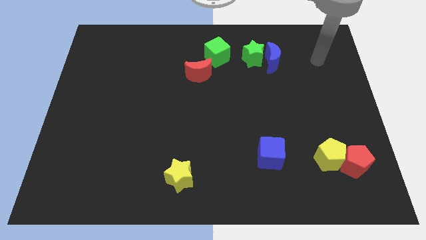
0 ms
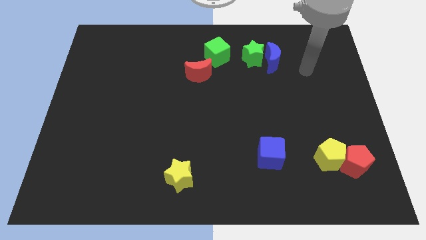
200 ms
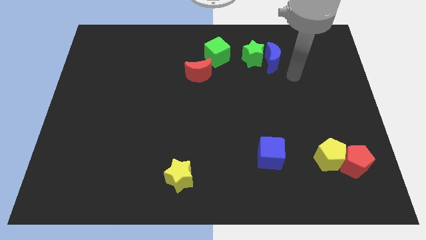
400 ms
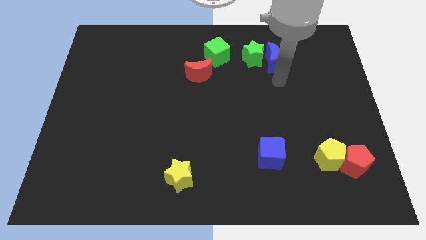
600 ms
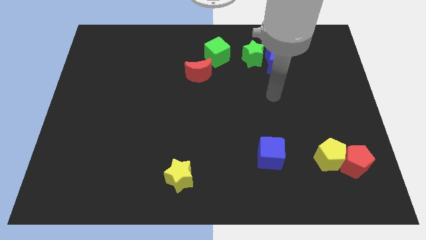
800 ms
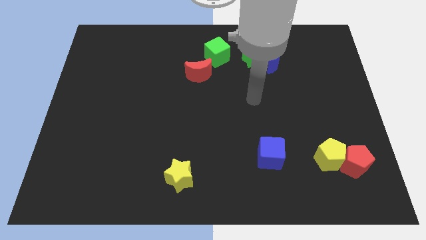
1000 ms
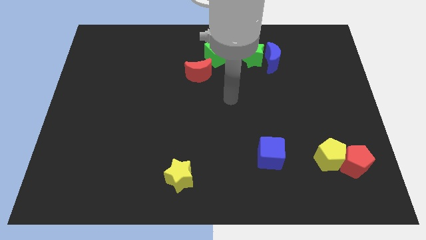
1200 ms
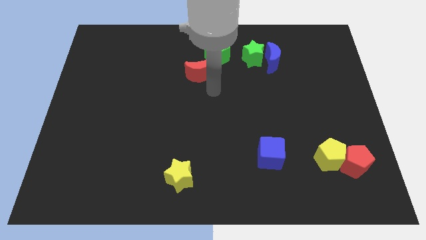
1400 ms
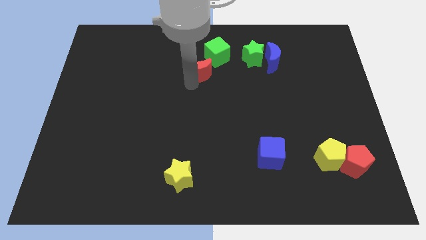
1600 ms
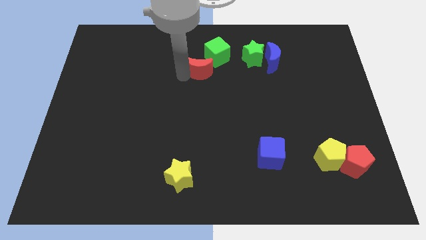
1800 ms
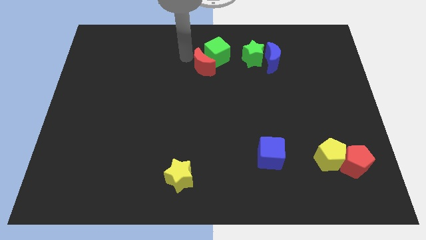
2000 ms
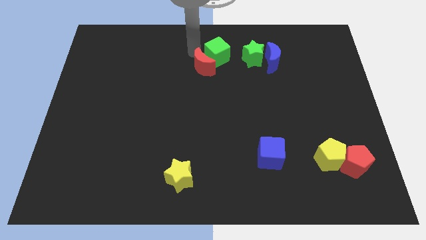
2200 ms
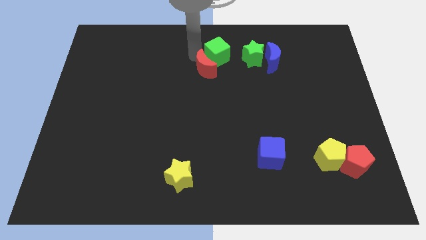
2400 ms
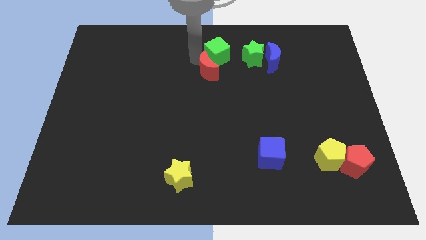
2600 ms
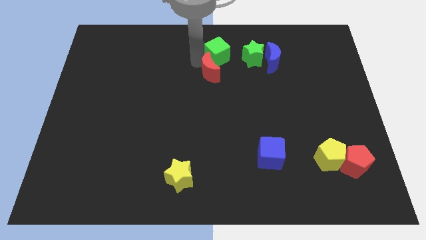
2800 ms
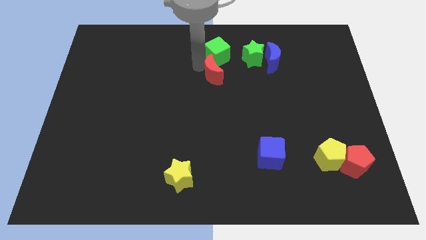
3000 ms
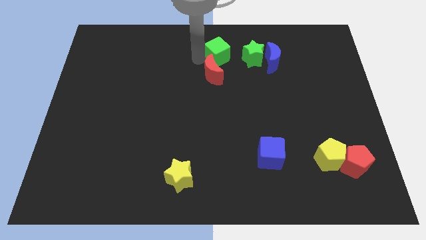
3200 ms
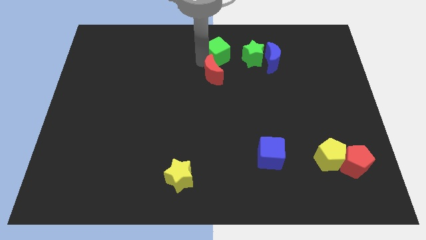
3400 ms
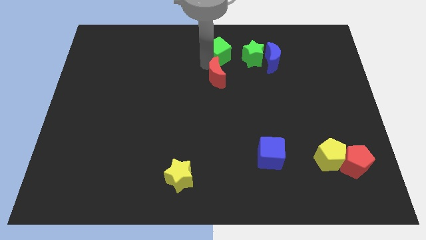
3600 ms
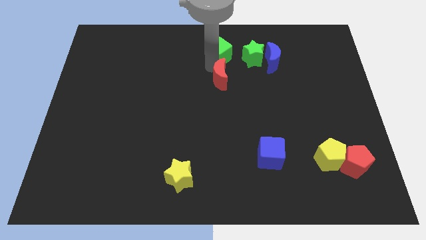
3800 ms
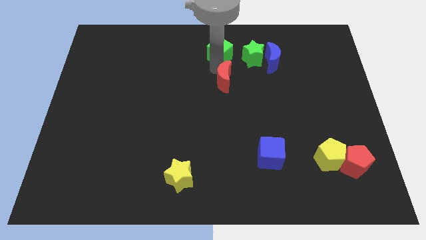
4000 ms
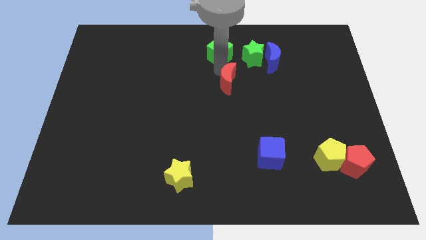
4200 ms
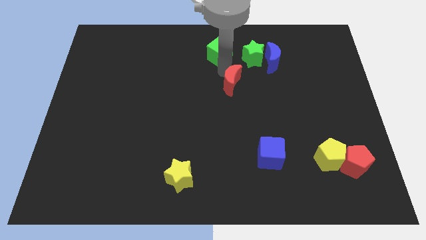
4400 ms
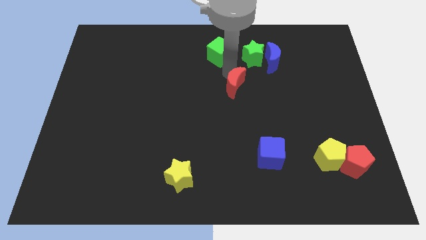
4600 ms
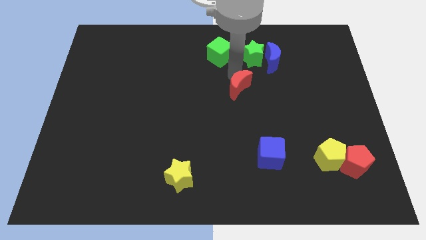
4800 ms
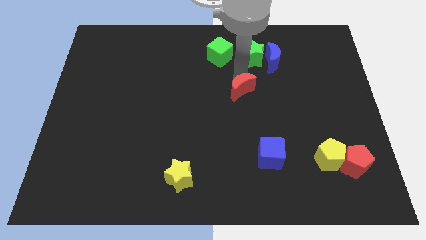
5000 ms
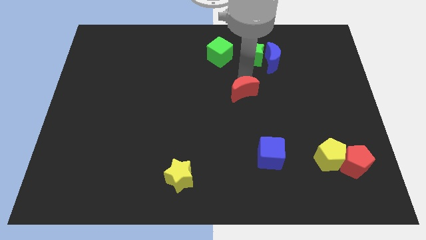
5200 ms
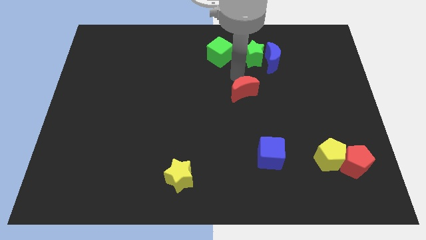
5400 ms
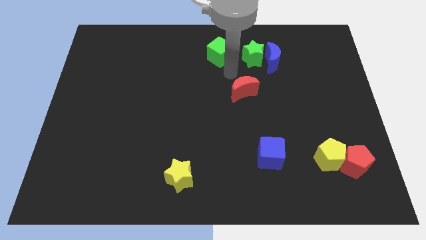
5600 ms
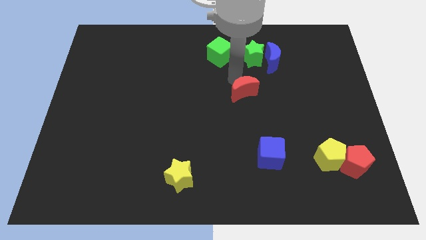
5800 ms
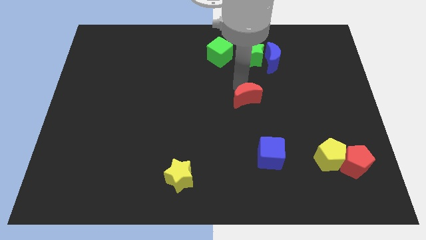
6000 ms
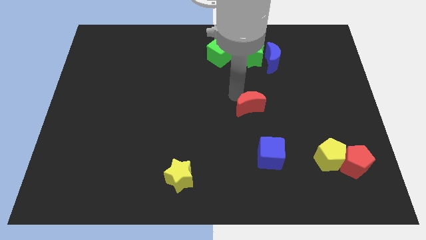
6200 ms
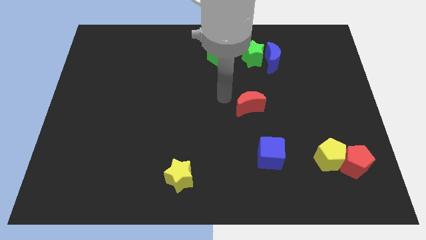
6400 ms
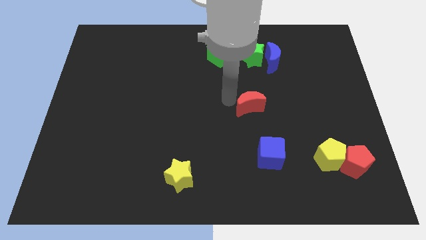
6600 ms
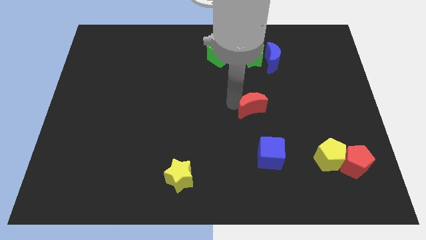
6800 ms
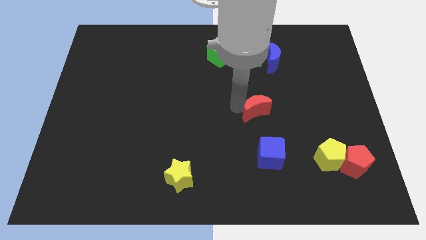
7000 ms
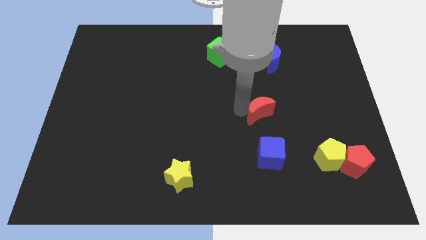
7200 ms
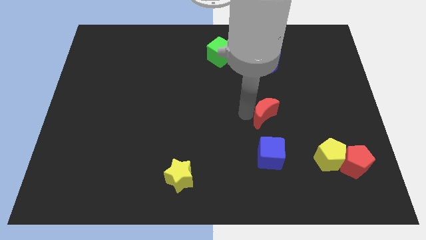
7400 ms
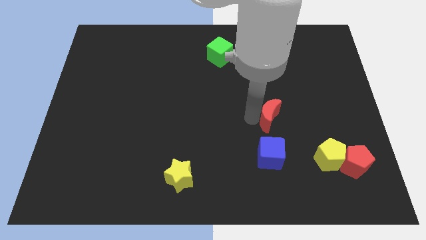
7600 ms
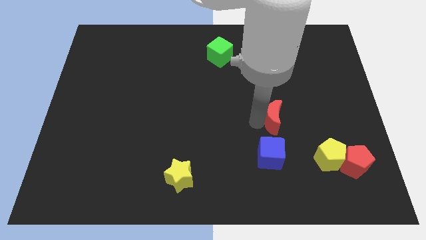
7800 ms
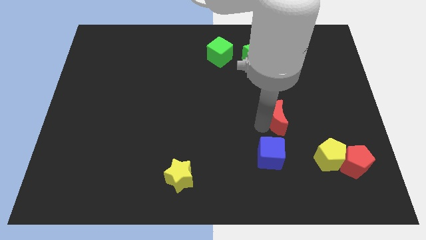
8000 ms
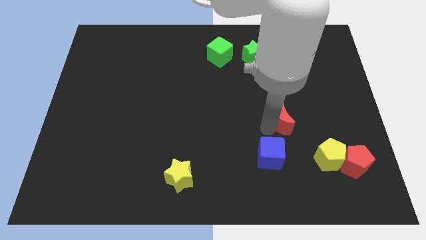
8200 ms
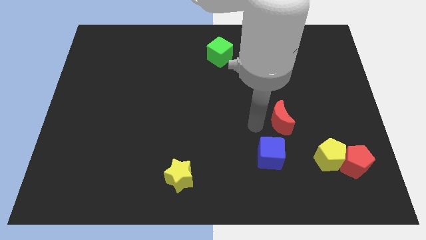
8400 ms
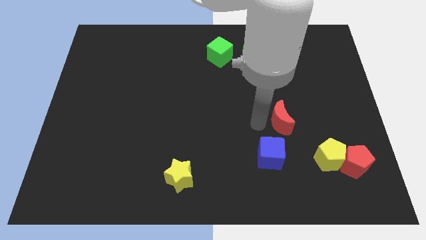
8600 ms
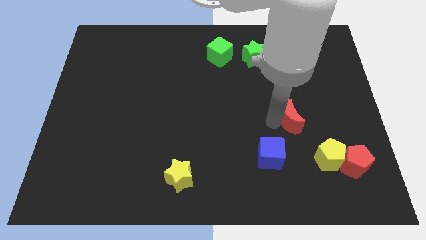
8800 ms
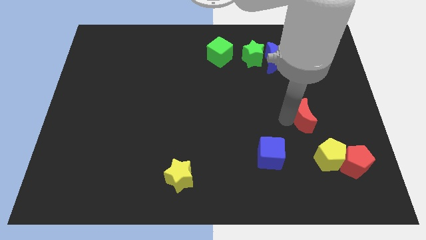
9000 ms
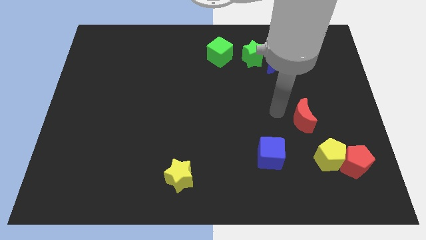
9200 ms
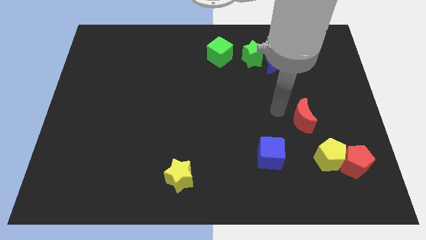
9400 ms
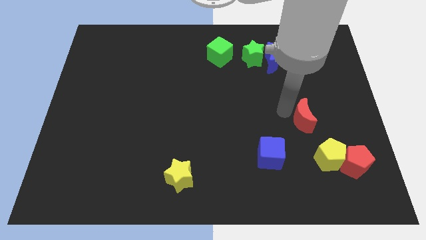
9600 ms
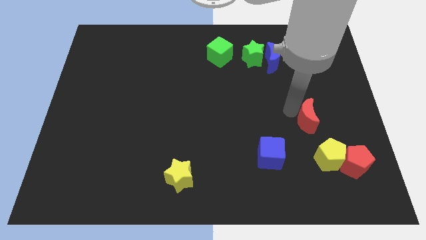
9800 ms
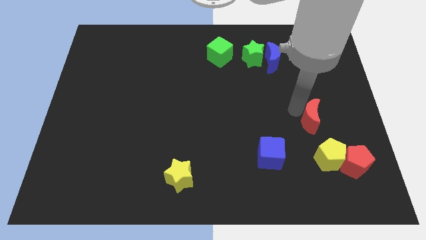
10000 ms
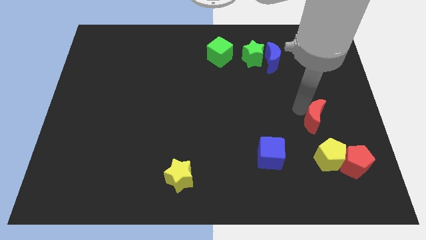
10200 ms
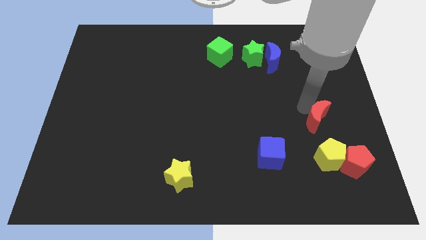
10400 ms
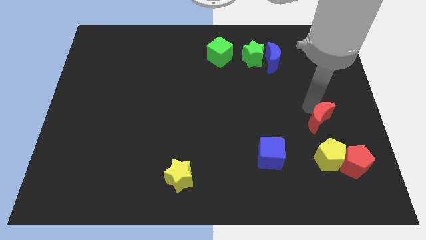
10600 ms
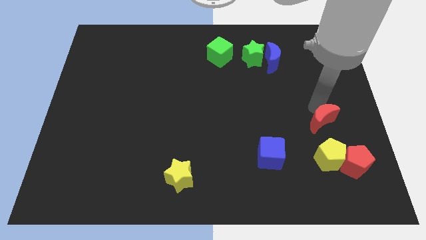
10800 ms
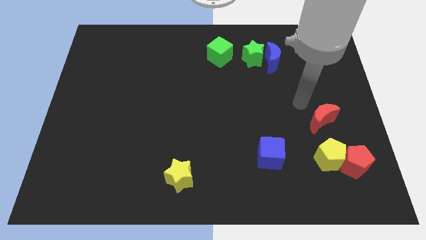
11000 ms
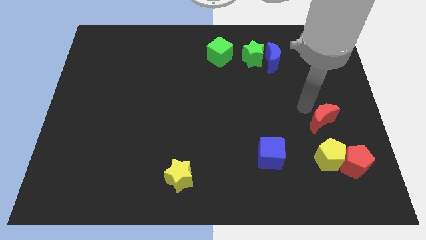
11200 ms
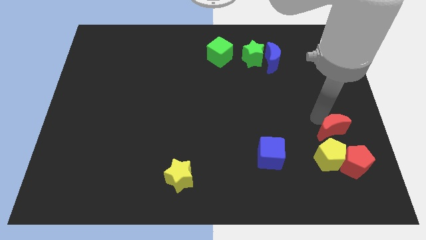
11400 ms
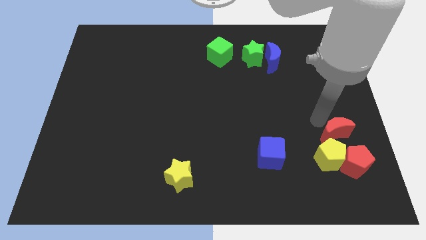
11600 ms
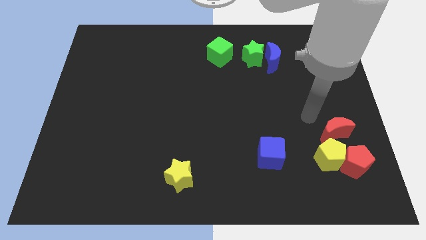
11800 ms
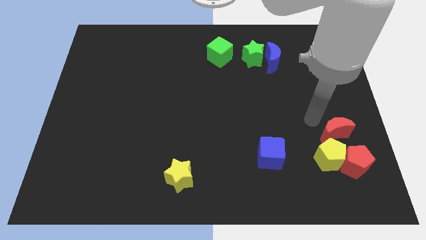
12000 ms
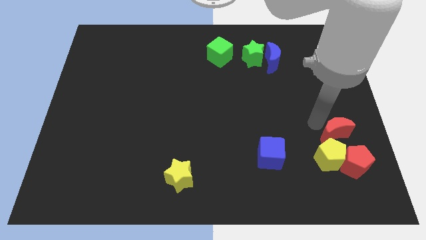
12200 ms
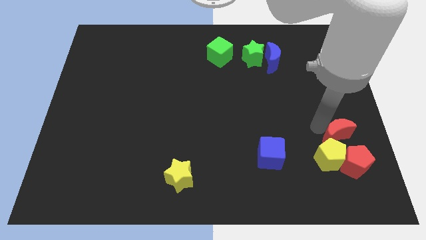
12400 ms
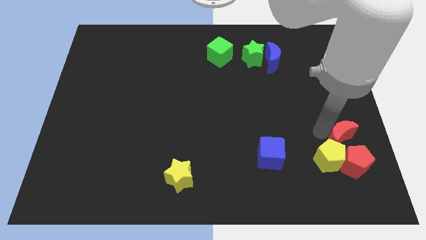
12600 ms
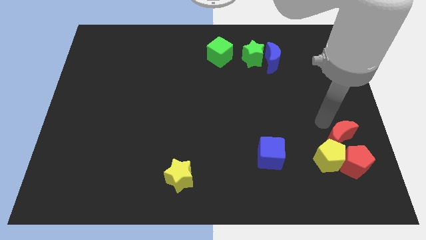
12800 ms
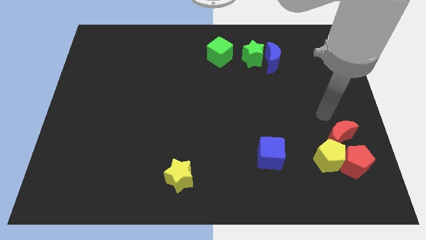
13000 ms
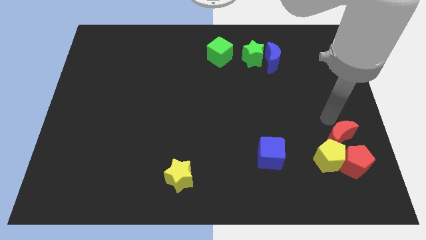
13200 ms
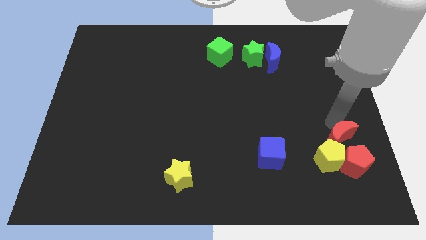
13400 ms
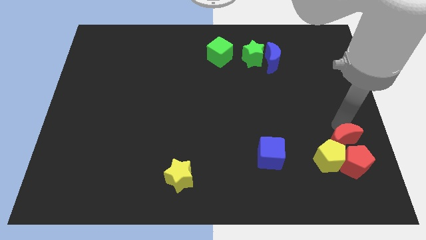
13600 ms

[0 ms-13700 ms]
put the red moon close to the red pentagon

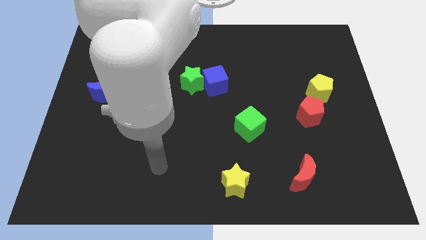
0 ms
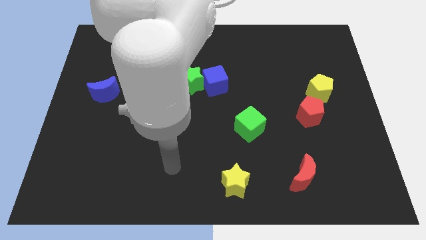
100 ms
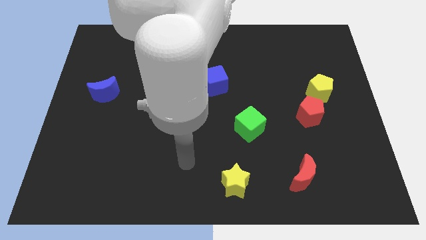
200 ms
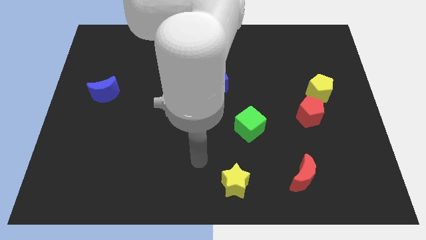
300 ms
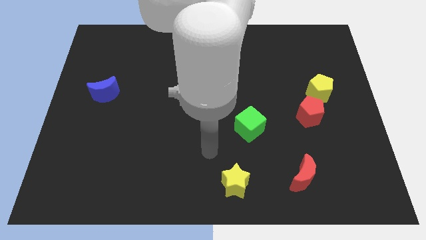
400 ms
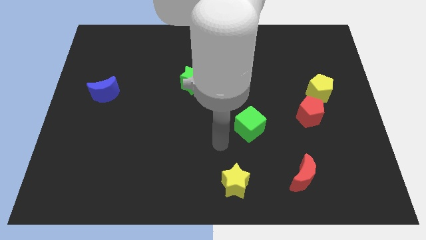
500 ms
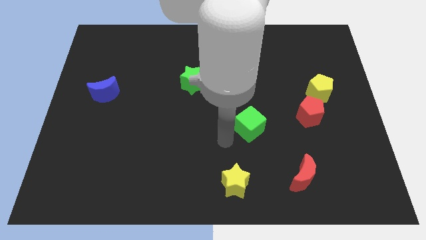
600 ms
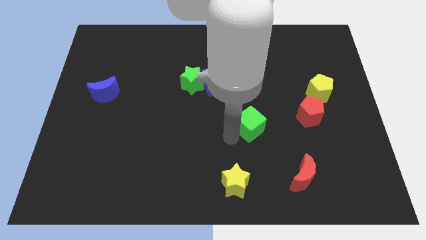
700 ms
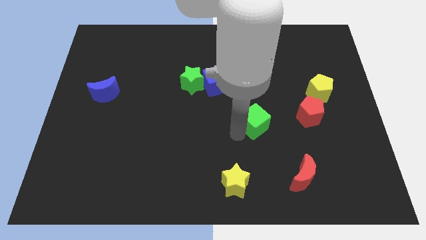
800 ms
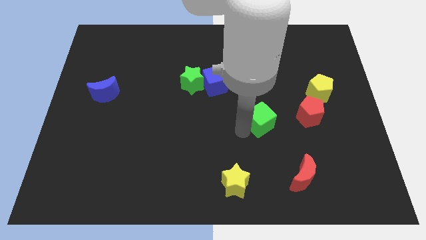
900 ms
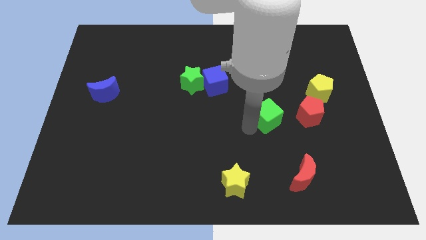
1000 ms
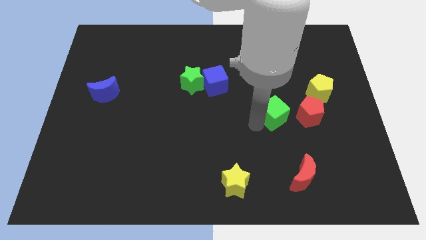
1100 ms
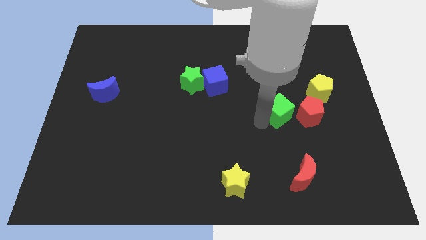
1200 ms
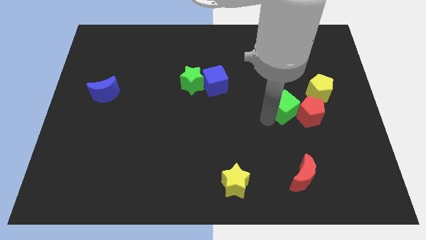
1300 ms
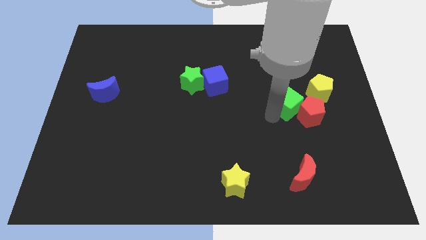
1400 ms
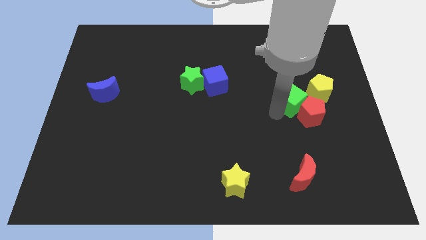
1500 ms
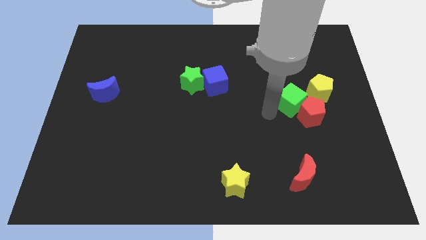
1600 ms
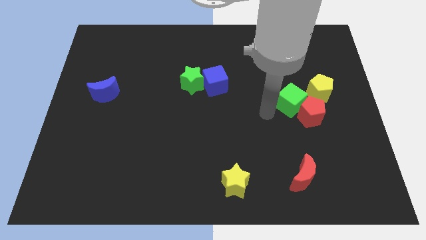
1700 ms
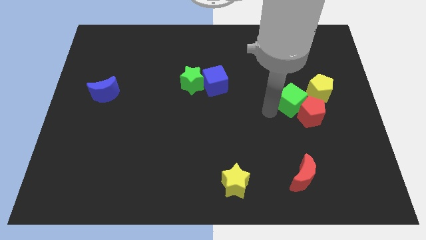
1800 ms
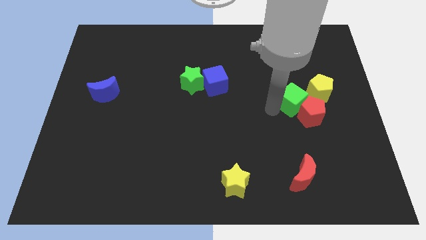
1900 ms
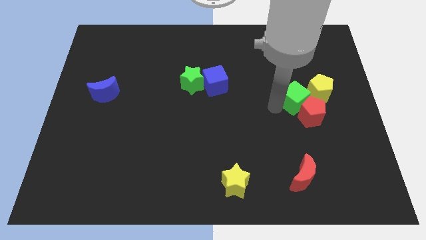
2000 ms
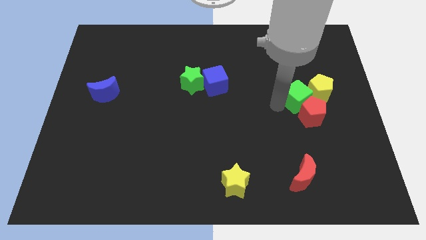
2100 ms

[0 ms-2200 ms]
push the green cube to the yellow pentagon
